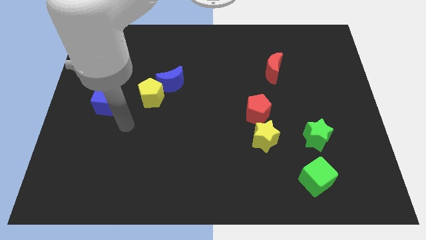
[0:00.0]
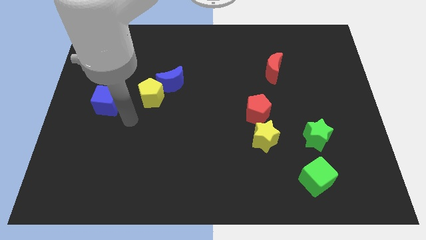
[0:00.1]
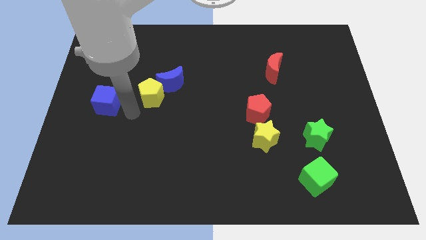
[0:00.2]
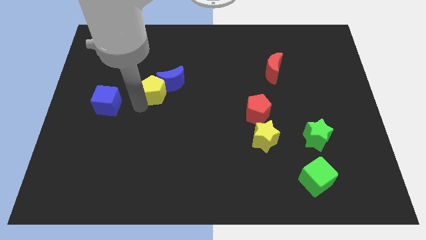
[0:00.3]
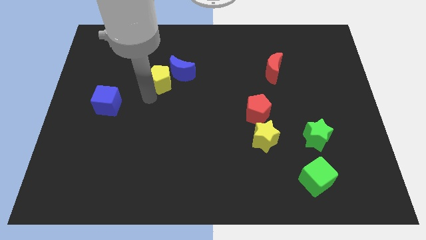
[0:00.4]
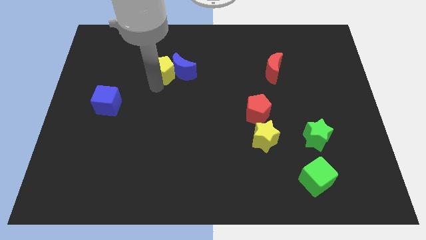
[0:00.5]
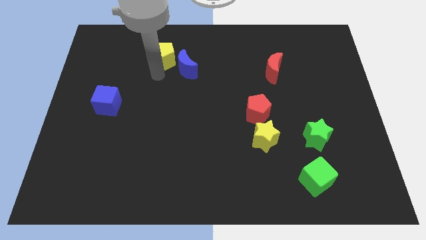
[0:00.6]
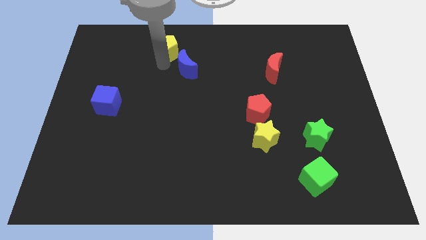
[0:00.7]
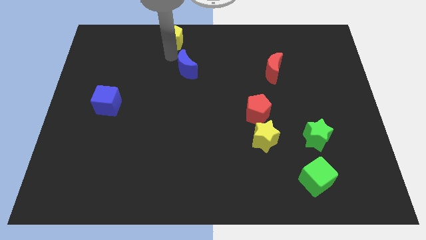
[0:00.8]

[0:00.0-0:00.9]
separate the blue moon from the yellow pentagon

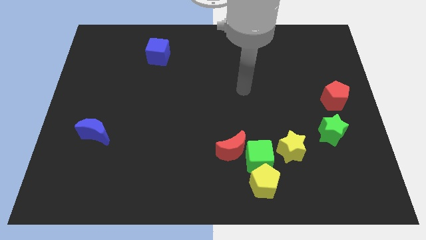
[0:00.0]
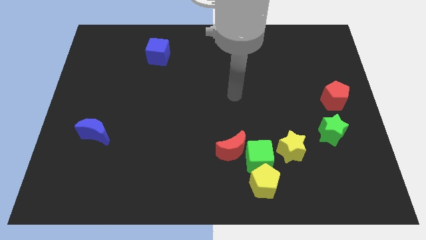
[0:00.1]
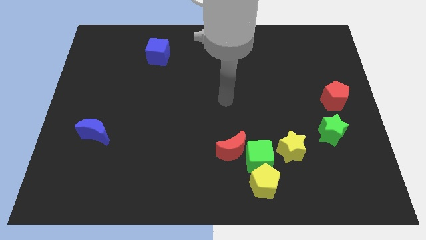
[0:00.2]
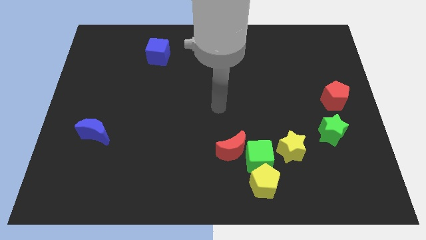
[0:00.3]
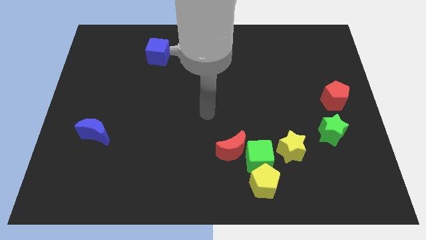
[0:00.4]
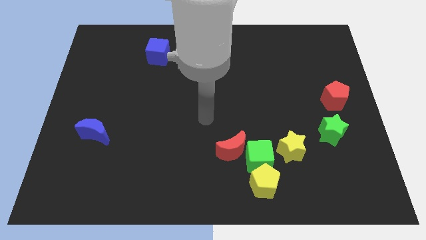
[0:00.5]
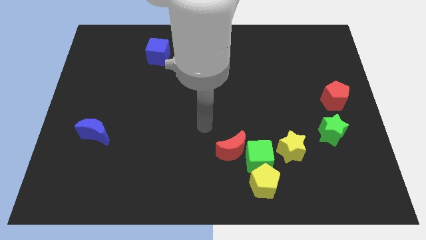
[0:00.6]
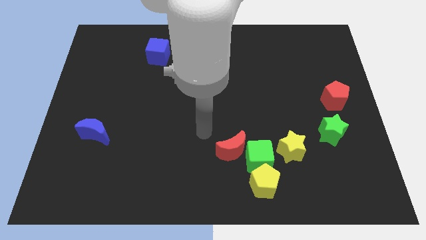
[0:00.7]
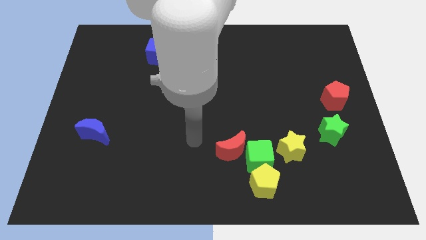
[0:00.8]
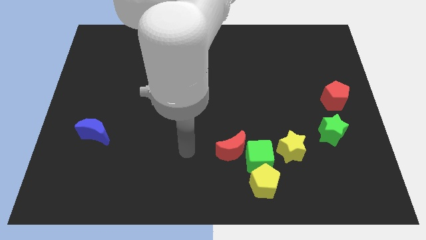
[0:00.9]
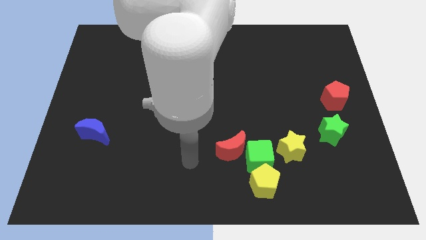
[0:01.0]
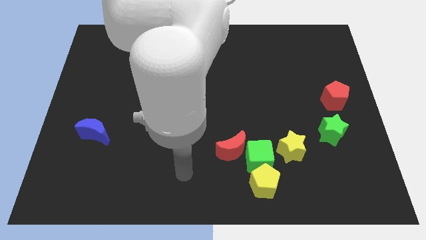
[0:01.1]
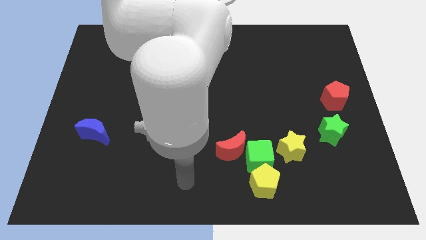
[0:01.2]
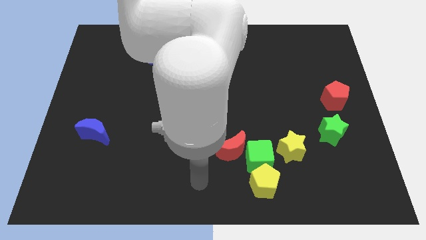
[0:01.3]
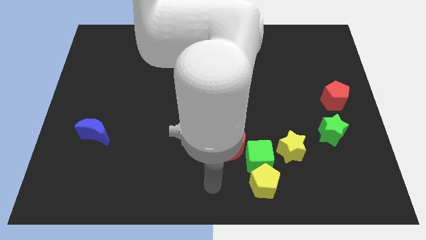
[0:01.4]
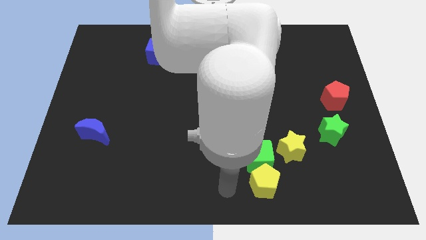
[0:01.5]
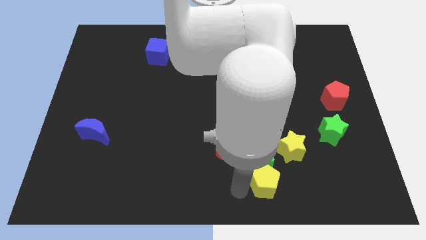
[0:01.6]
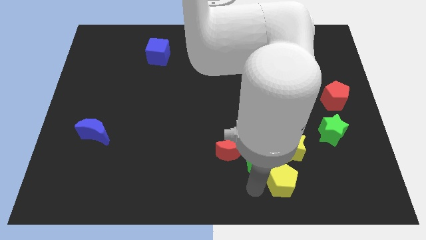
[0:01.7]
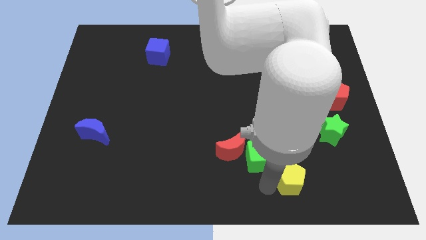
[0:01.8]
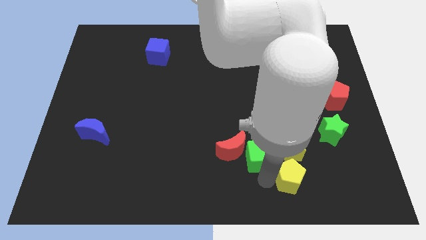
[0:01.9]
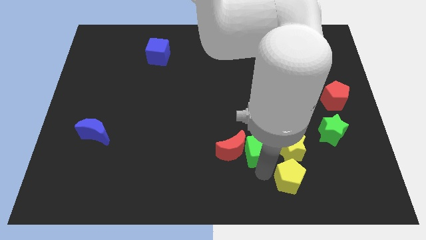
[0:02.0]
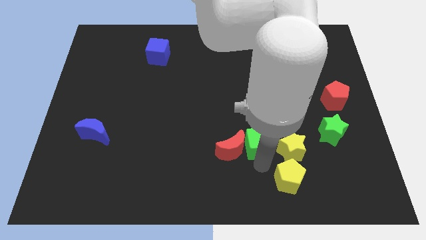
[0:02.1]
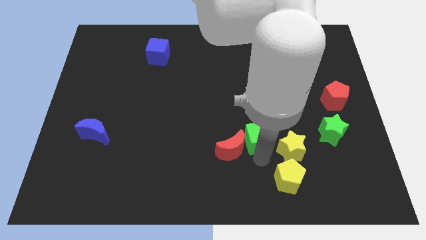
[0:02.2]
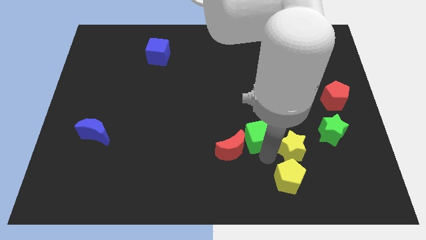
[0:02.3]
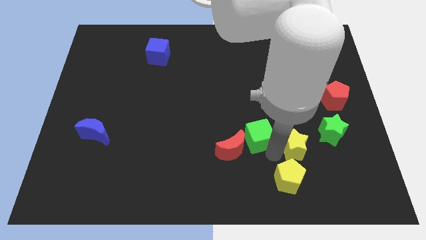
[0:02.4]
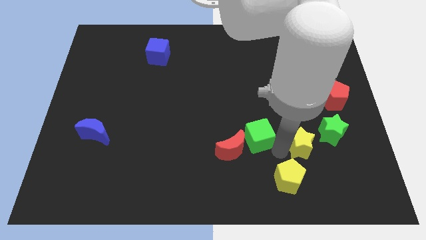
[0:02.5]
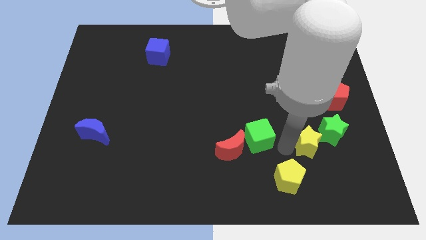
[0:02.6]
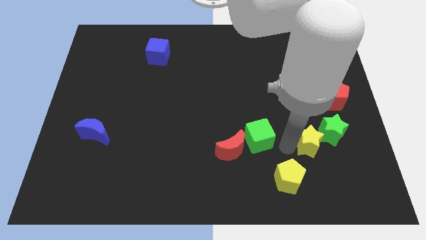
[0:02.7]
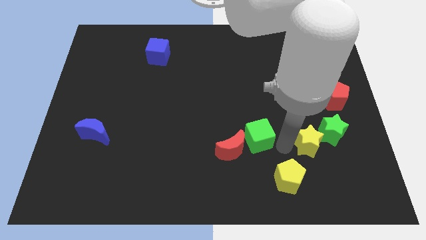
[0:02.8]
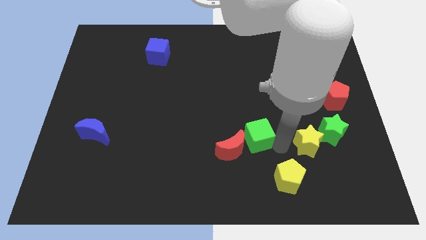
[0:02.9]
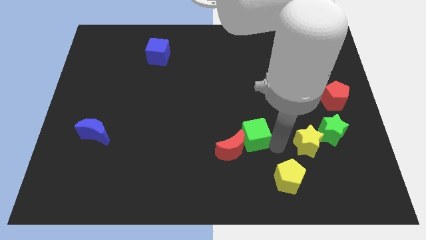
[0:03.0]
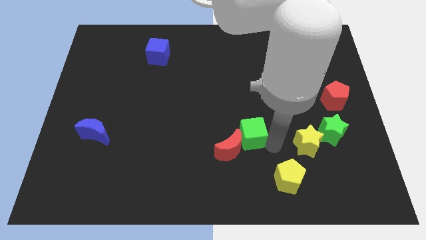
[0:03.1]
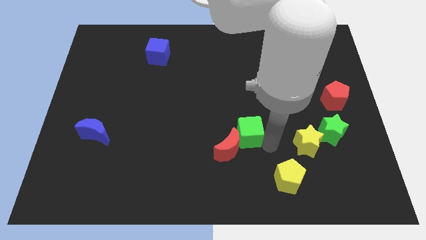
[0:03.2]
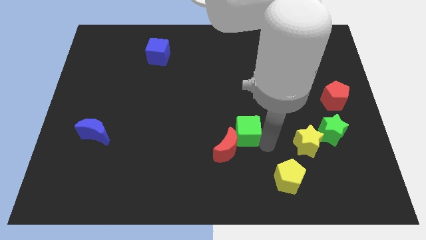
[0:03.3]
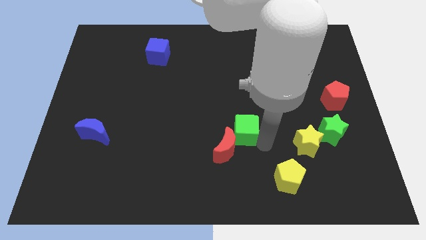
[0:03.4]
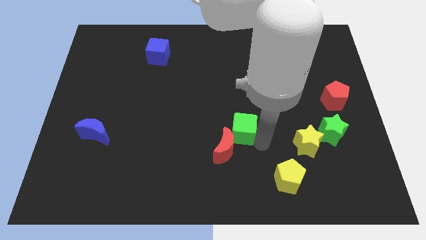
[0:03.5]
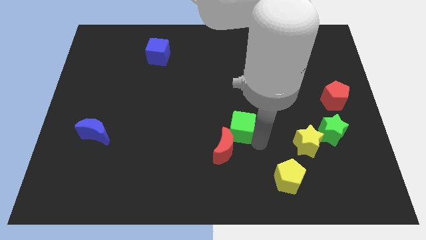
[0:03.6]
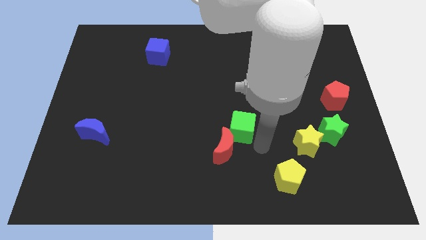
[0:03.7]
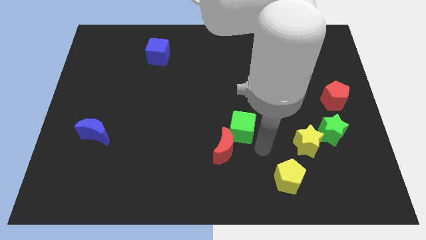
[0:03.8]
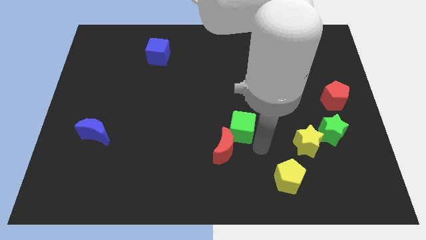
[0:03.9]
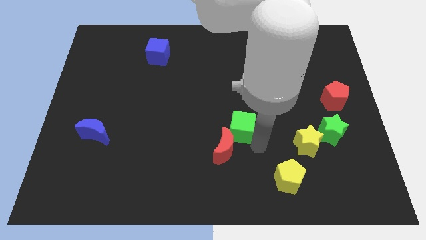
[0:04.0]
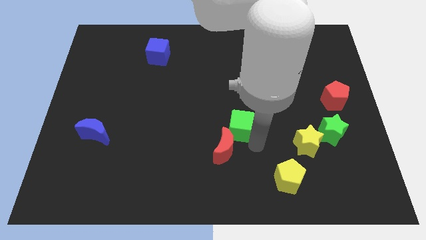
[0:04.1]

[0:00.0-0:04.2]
move the green cube away from the yellow pentagon, red moon, and yellow star

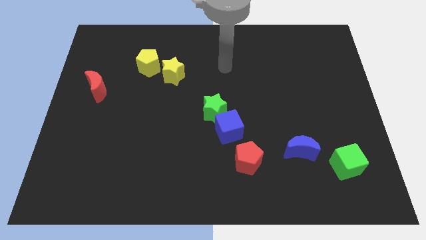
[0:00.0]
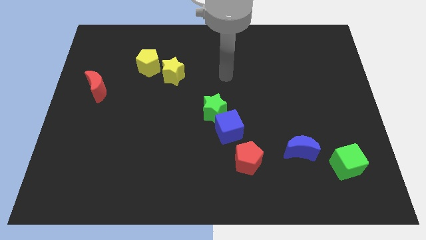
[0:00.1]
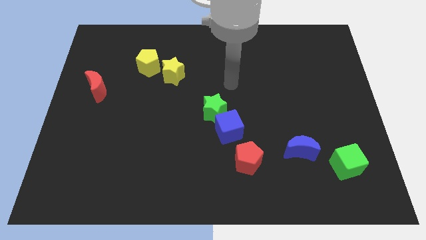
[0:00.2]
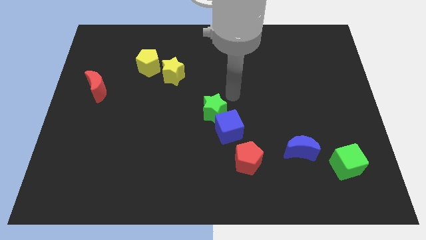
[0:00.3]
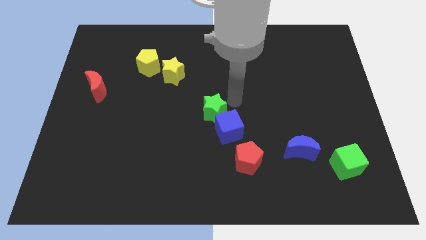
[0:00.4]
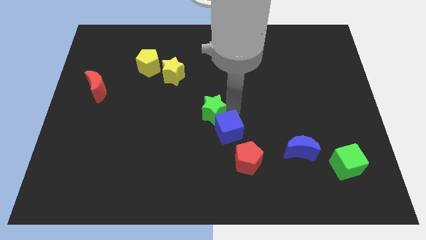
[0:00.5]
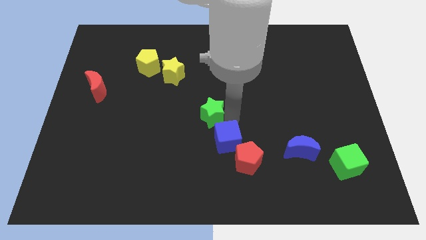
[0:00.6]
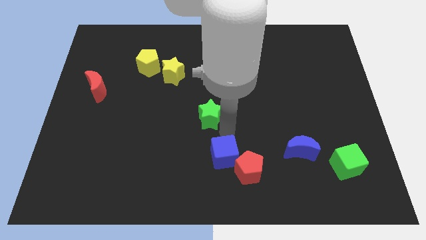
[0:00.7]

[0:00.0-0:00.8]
separate the green star from the blue cube

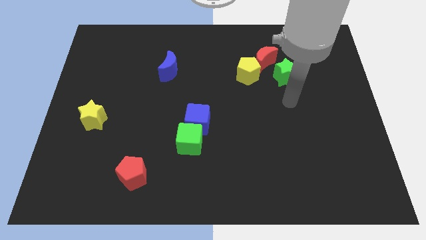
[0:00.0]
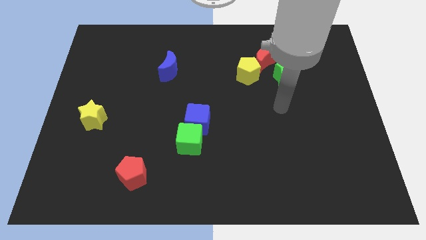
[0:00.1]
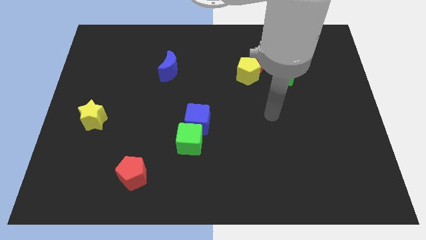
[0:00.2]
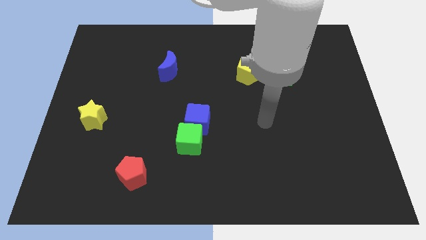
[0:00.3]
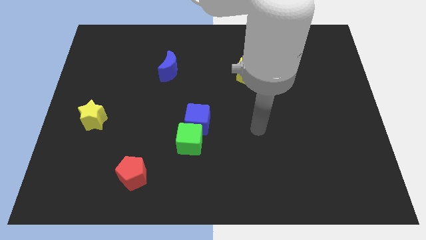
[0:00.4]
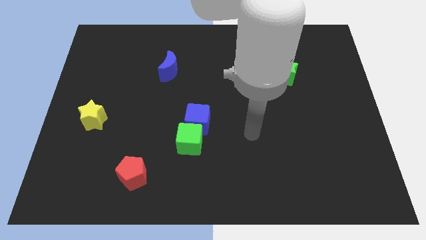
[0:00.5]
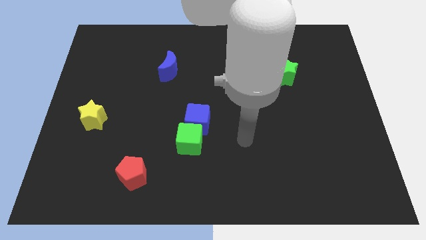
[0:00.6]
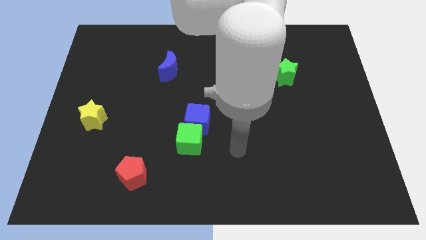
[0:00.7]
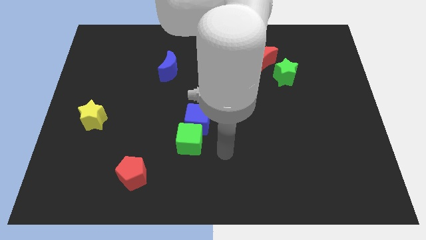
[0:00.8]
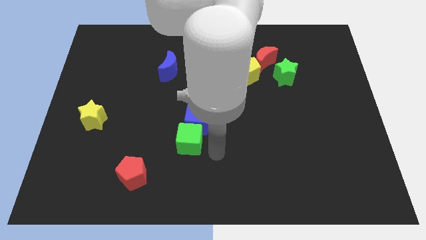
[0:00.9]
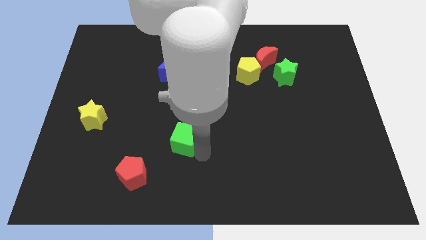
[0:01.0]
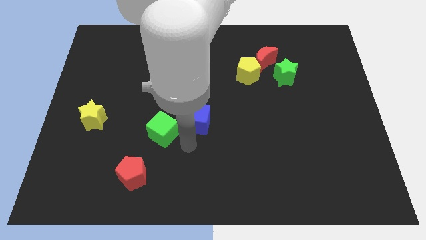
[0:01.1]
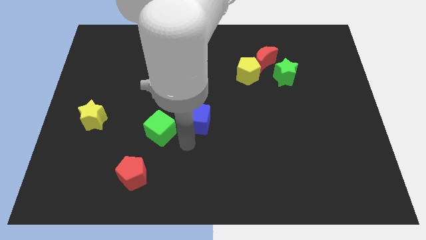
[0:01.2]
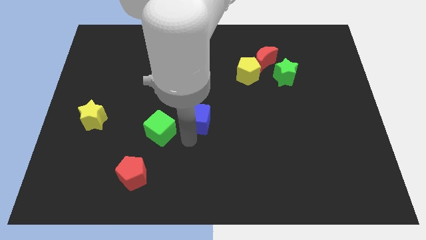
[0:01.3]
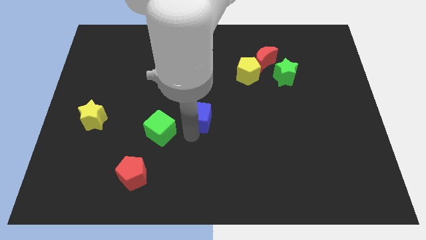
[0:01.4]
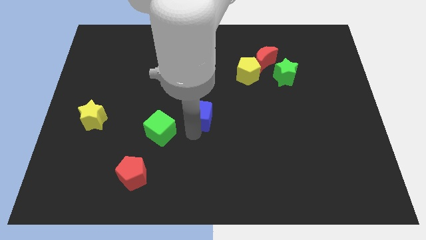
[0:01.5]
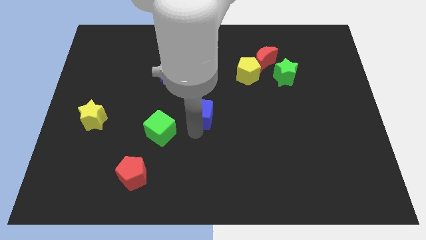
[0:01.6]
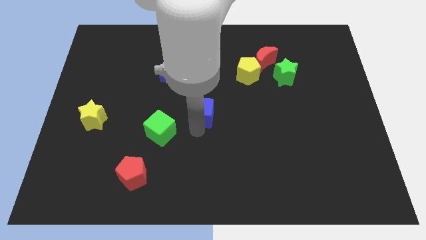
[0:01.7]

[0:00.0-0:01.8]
pull the blue cube apart from the green cube

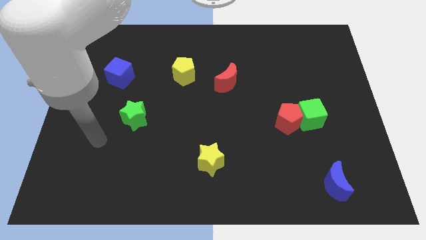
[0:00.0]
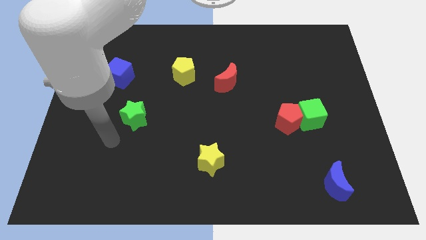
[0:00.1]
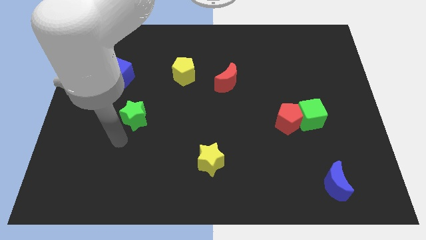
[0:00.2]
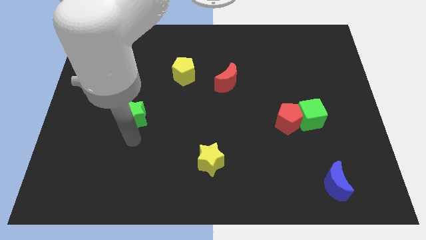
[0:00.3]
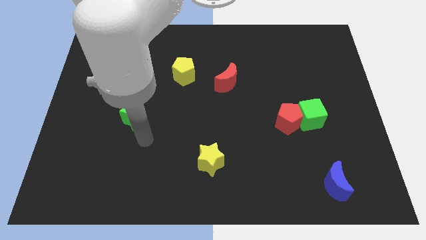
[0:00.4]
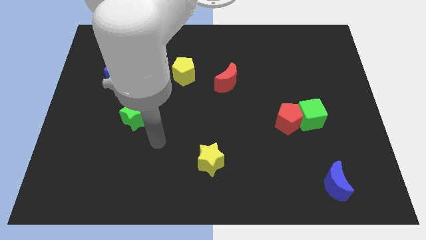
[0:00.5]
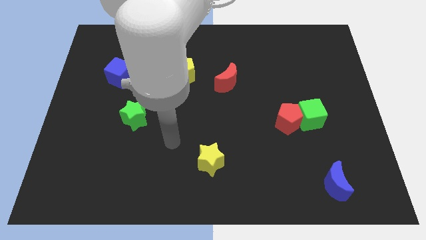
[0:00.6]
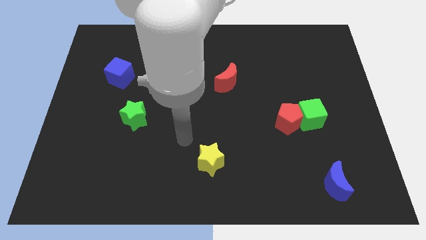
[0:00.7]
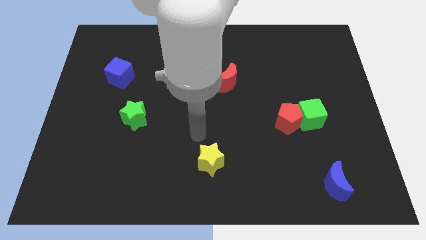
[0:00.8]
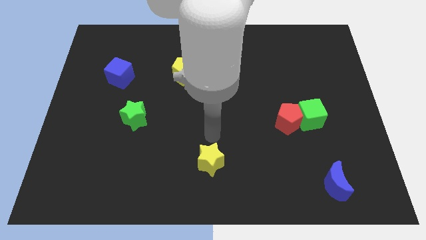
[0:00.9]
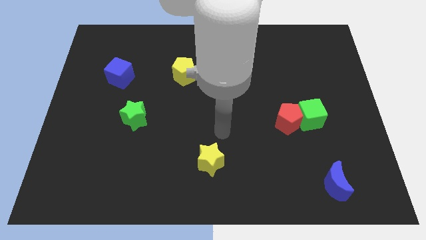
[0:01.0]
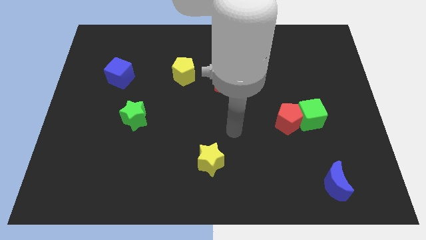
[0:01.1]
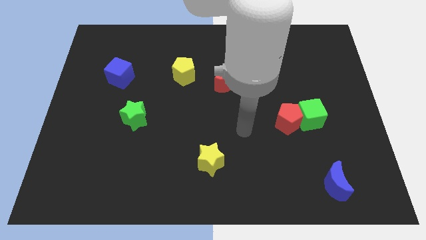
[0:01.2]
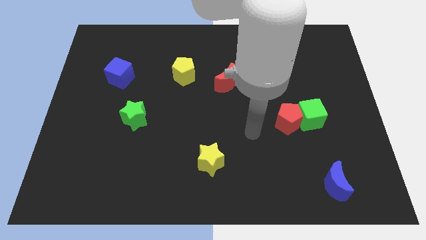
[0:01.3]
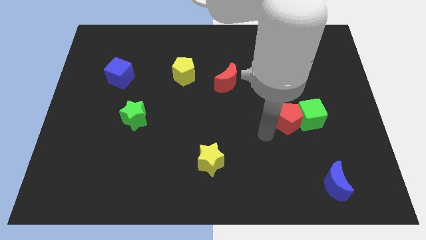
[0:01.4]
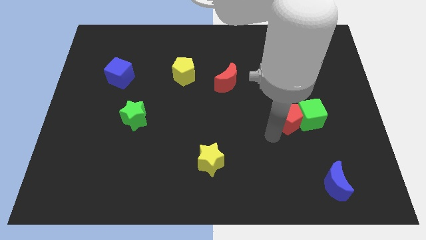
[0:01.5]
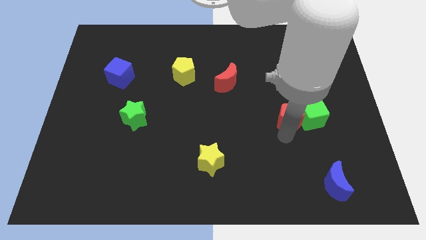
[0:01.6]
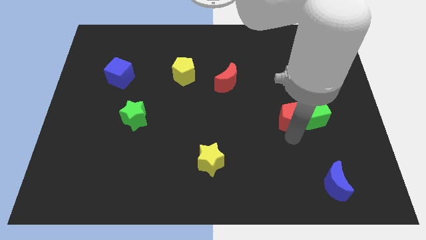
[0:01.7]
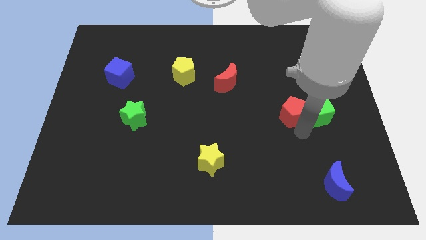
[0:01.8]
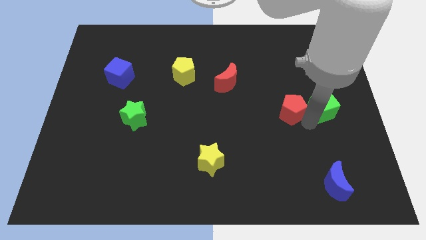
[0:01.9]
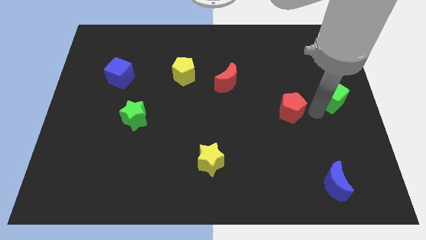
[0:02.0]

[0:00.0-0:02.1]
pull the red pentagon apart from the green cube
